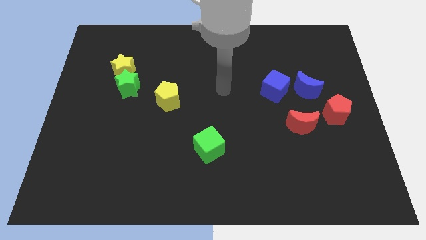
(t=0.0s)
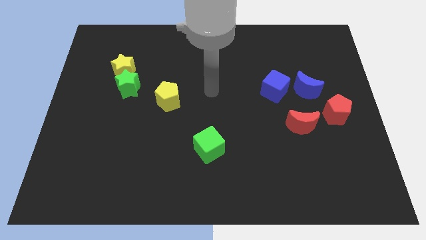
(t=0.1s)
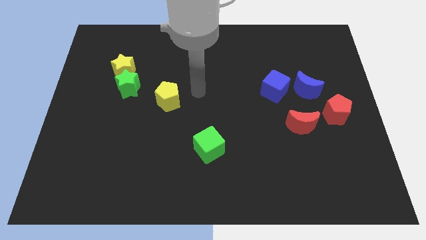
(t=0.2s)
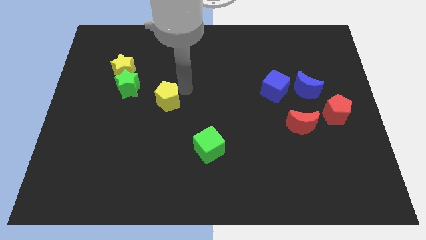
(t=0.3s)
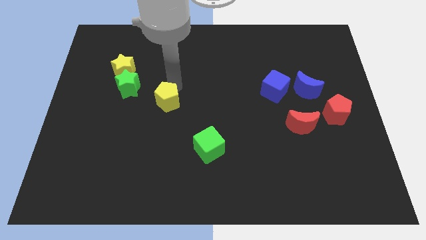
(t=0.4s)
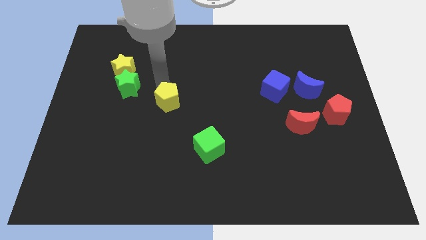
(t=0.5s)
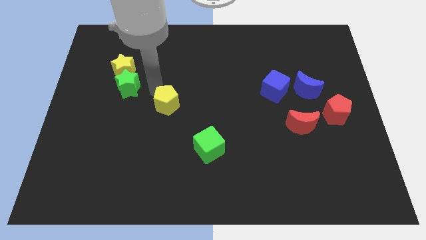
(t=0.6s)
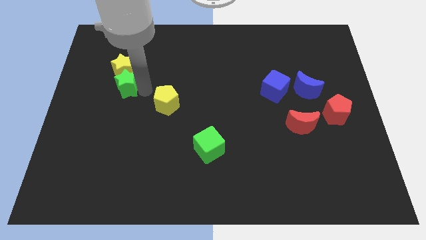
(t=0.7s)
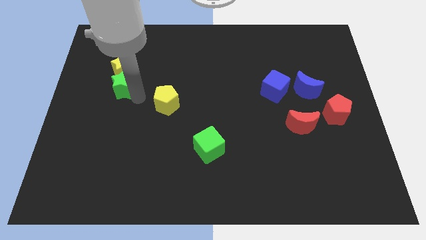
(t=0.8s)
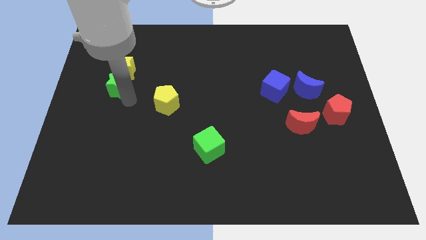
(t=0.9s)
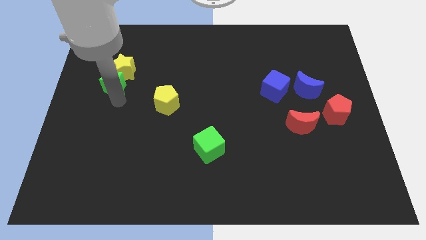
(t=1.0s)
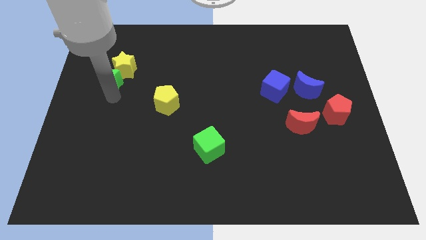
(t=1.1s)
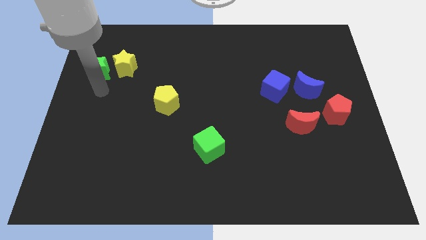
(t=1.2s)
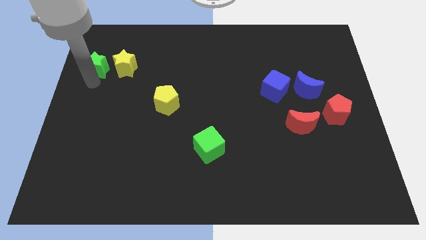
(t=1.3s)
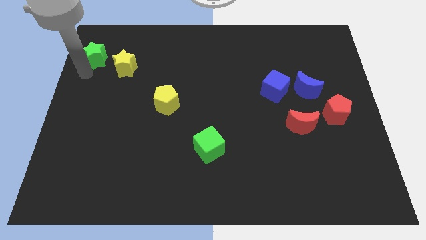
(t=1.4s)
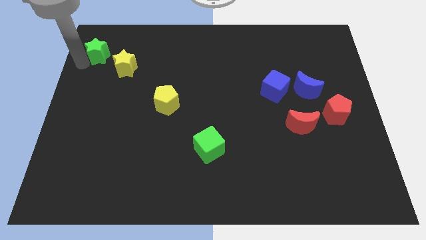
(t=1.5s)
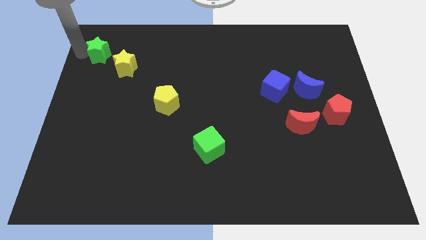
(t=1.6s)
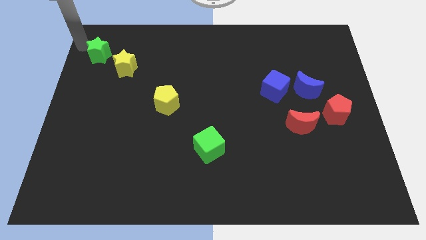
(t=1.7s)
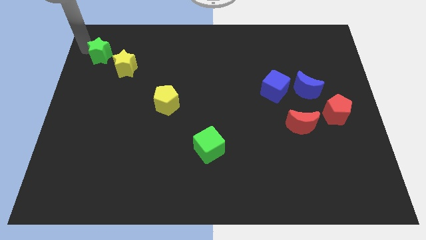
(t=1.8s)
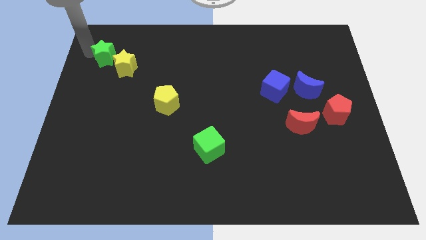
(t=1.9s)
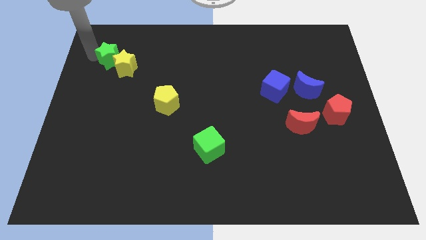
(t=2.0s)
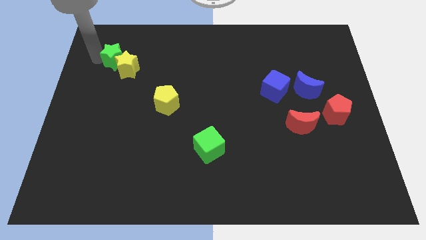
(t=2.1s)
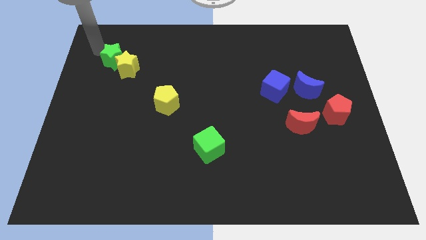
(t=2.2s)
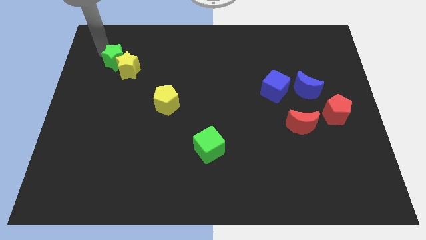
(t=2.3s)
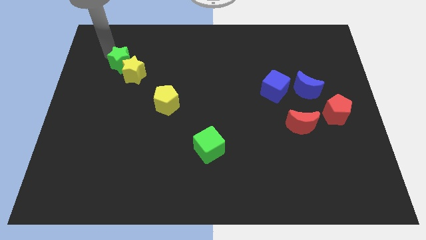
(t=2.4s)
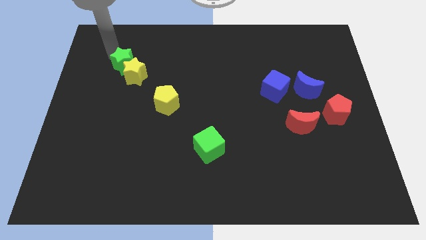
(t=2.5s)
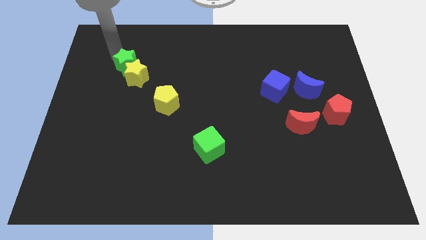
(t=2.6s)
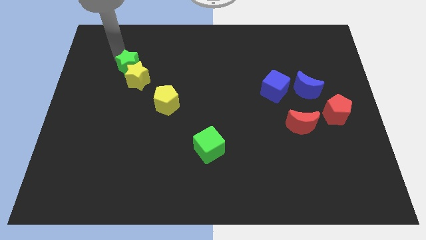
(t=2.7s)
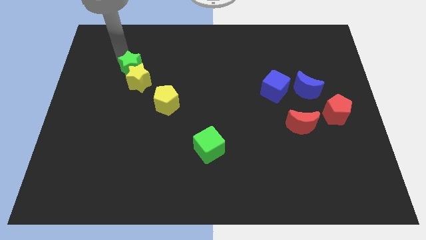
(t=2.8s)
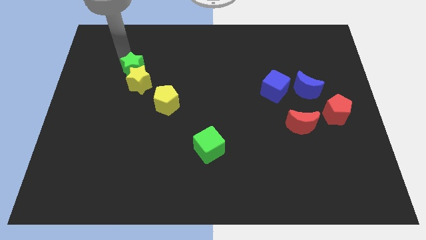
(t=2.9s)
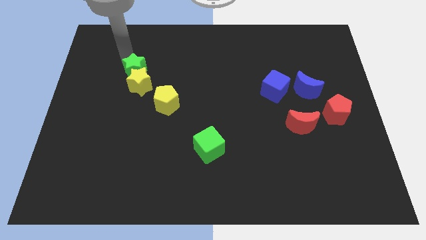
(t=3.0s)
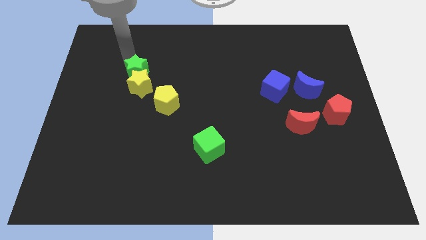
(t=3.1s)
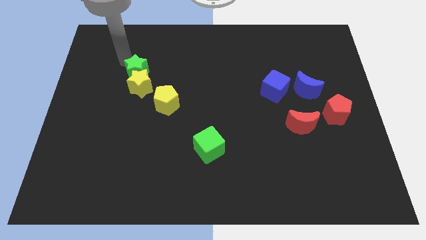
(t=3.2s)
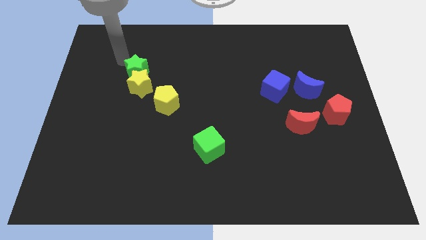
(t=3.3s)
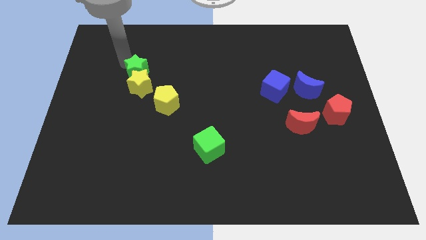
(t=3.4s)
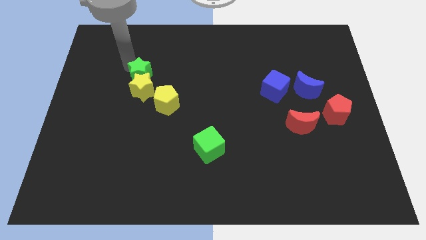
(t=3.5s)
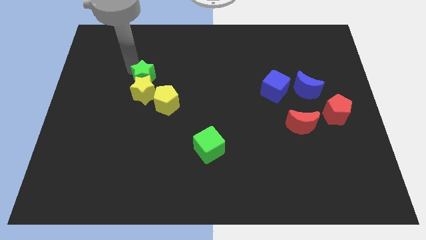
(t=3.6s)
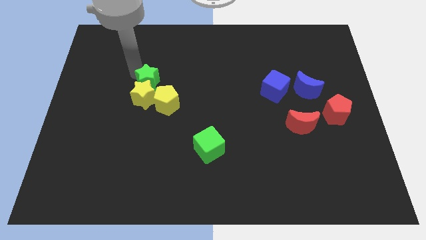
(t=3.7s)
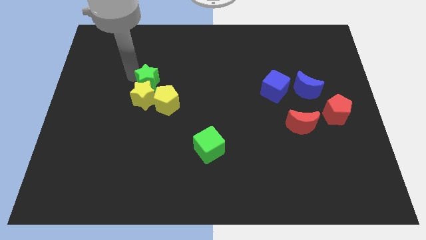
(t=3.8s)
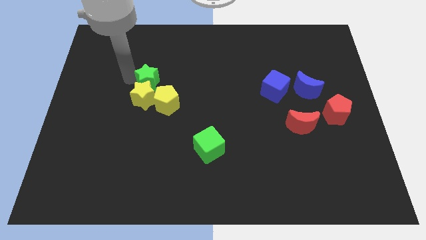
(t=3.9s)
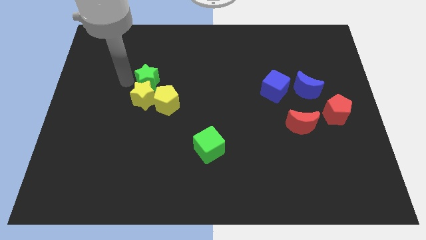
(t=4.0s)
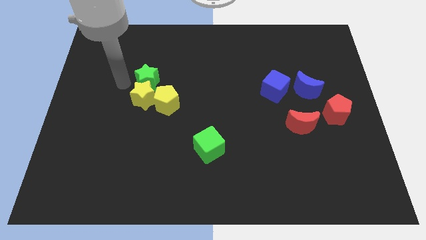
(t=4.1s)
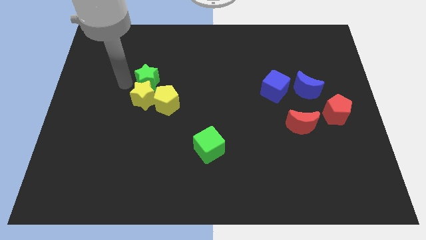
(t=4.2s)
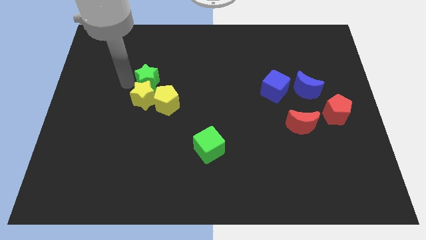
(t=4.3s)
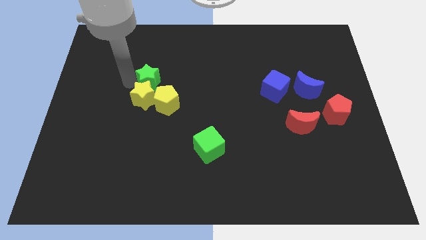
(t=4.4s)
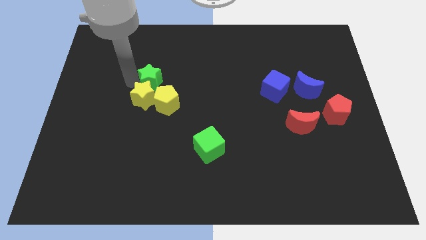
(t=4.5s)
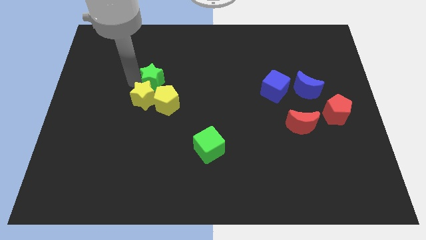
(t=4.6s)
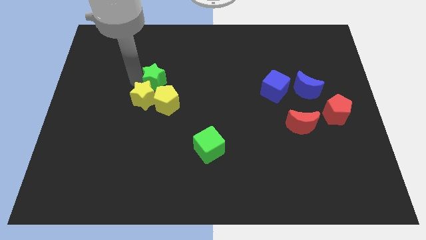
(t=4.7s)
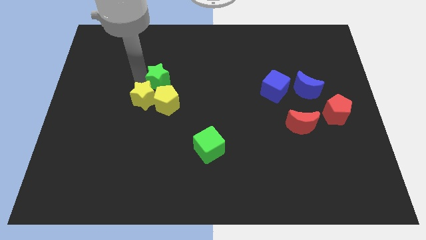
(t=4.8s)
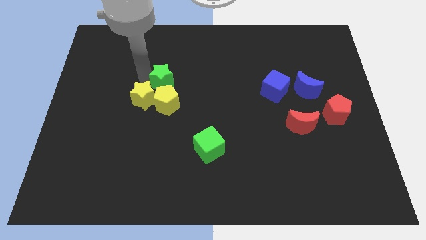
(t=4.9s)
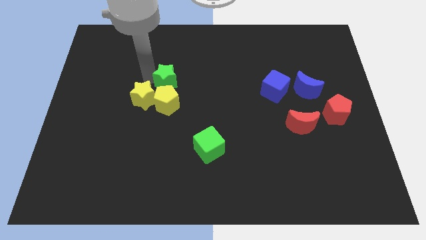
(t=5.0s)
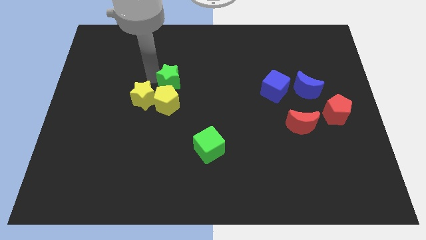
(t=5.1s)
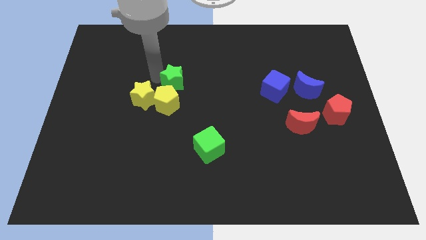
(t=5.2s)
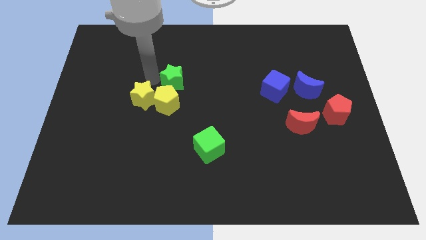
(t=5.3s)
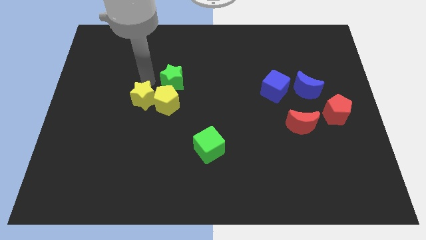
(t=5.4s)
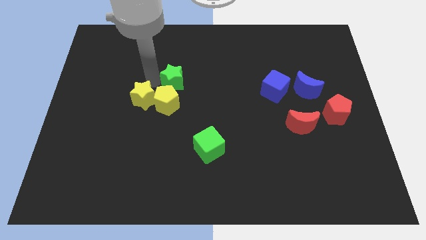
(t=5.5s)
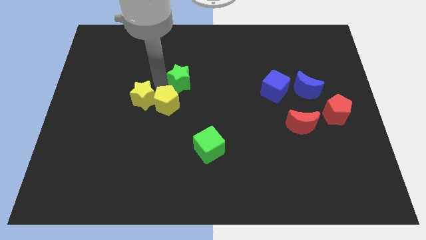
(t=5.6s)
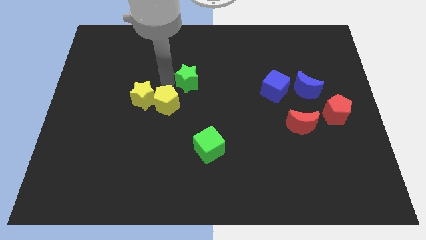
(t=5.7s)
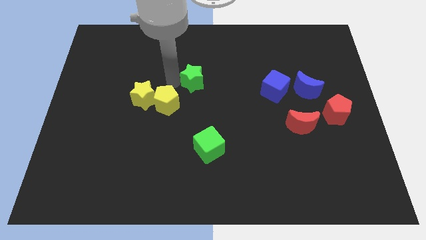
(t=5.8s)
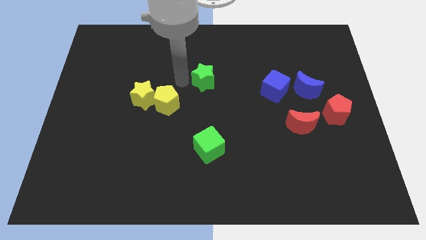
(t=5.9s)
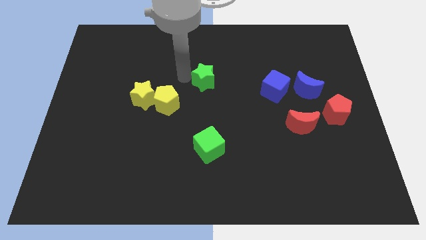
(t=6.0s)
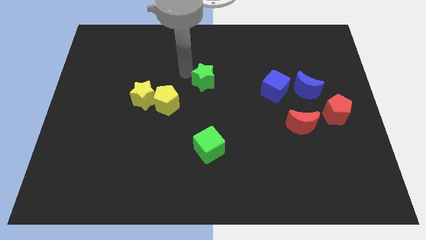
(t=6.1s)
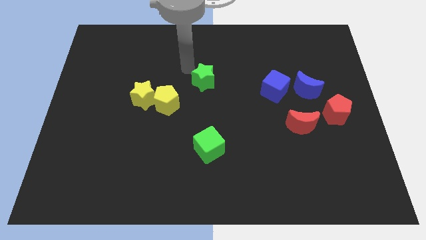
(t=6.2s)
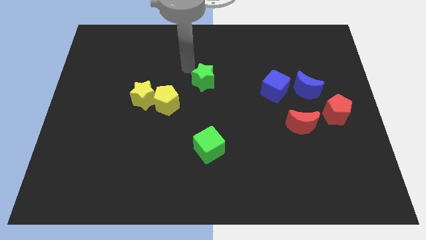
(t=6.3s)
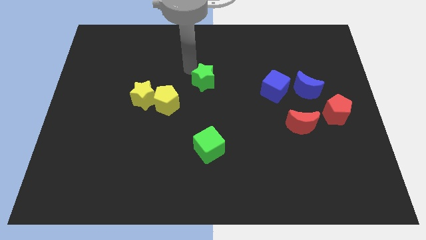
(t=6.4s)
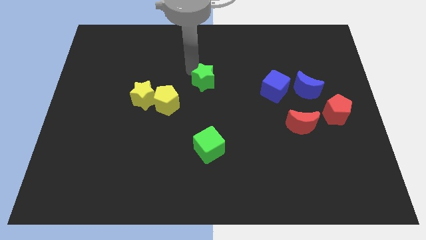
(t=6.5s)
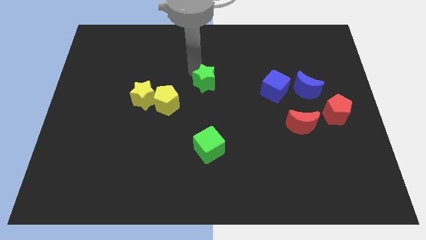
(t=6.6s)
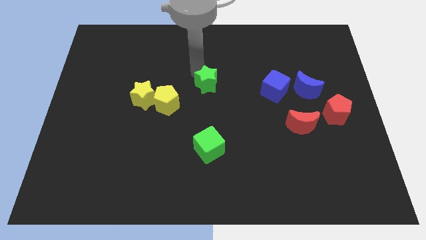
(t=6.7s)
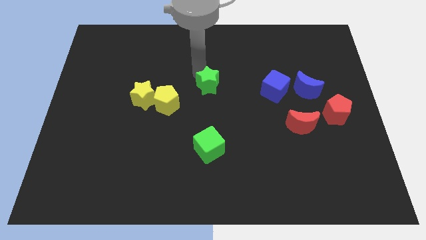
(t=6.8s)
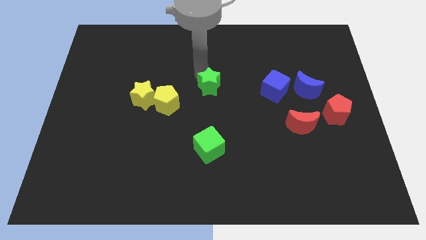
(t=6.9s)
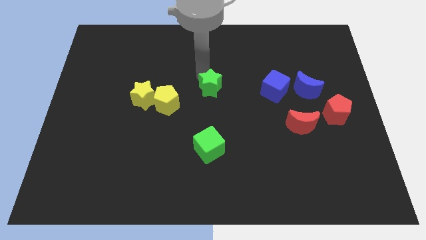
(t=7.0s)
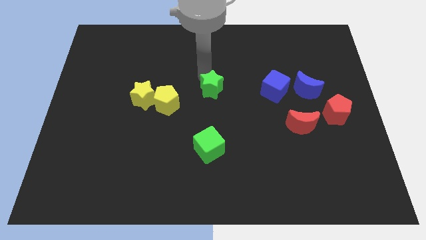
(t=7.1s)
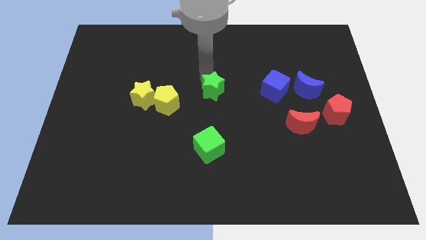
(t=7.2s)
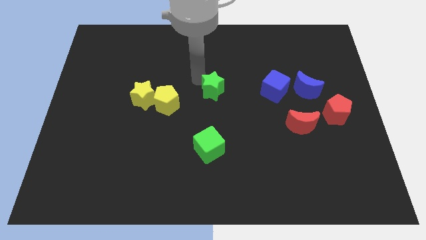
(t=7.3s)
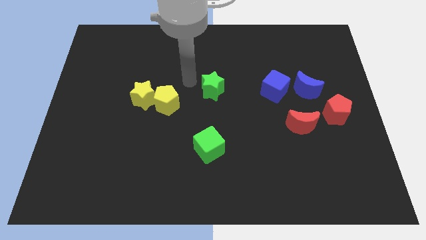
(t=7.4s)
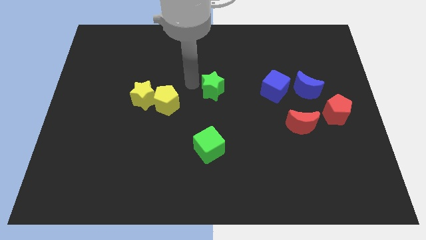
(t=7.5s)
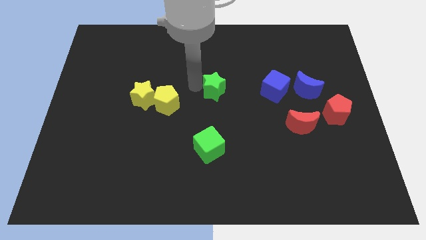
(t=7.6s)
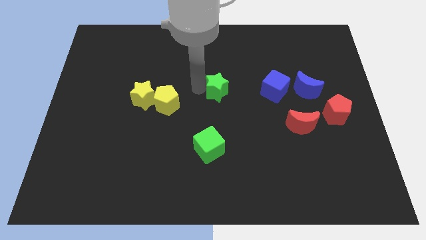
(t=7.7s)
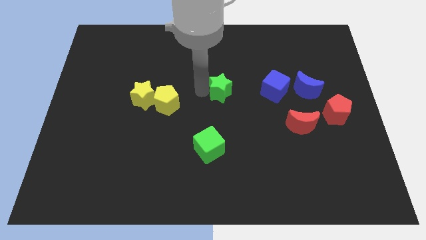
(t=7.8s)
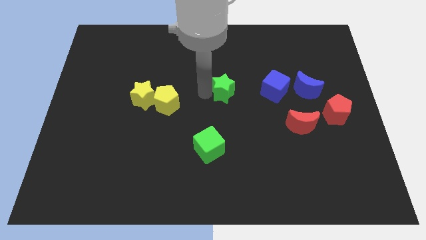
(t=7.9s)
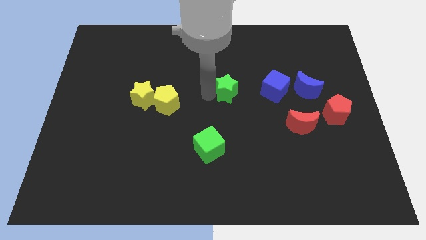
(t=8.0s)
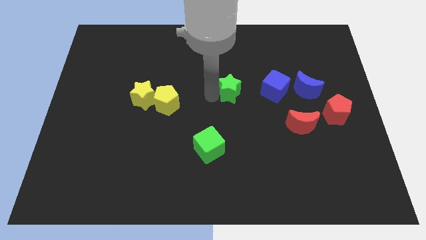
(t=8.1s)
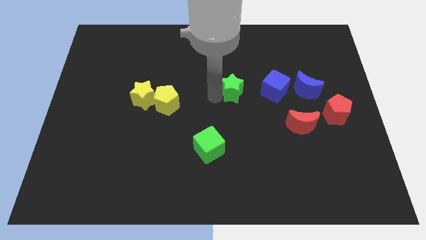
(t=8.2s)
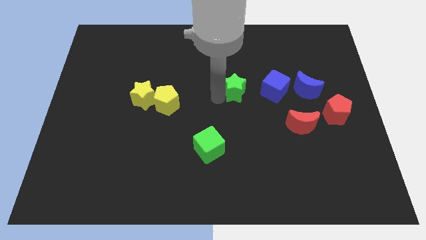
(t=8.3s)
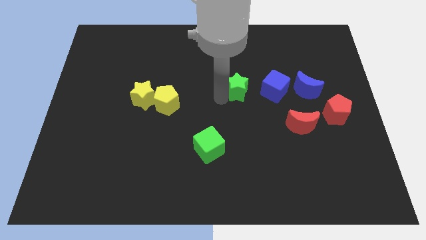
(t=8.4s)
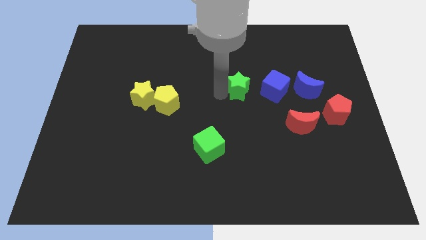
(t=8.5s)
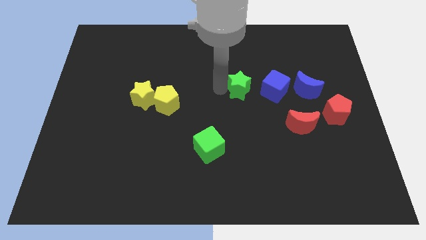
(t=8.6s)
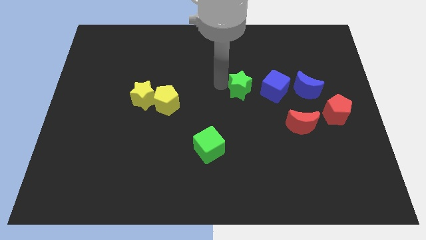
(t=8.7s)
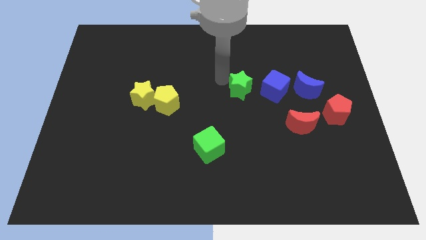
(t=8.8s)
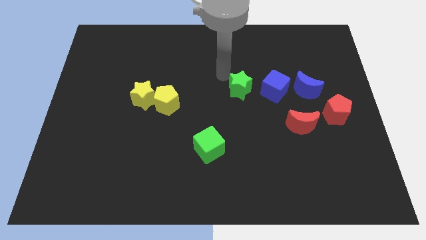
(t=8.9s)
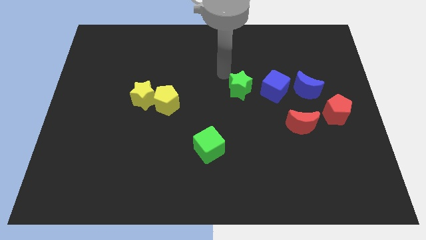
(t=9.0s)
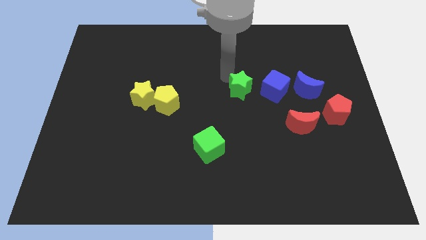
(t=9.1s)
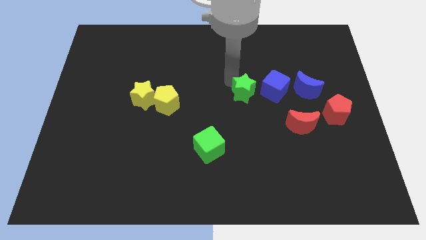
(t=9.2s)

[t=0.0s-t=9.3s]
slide the green star to the bottom left of the blue cube
